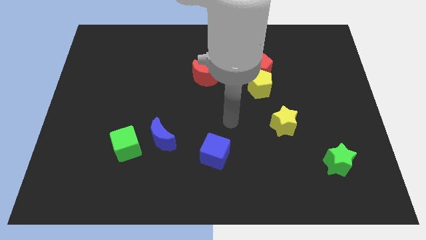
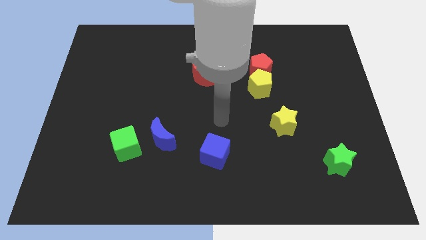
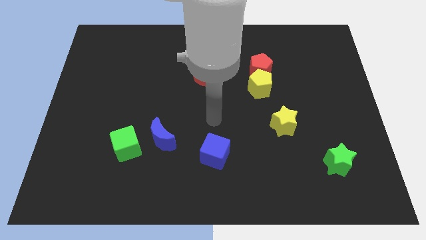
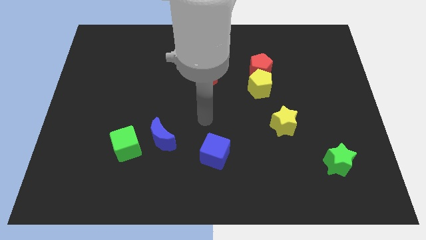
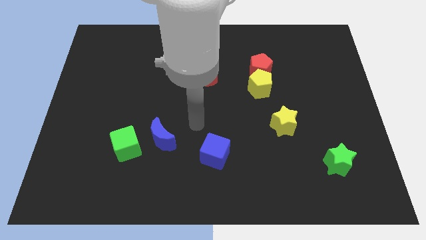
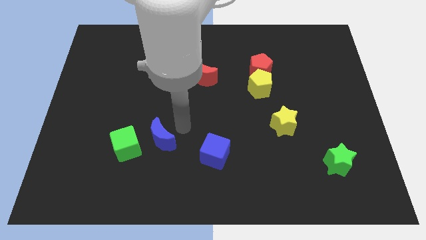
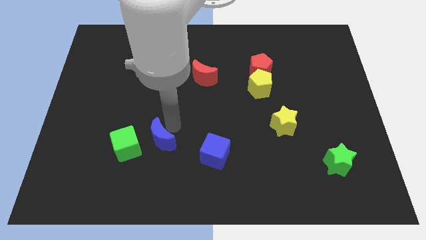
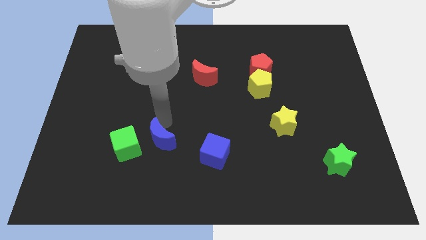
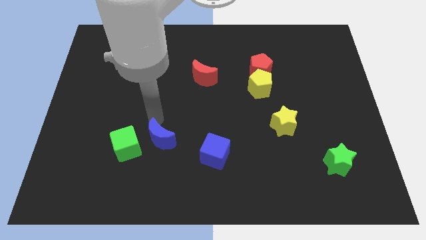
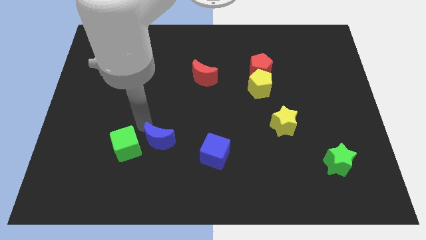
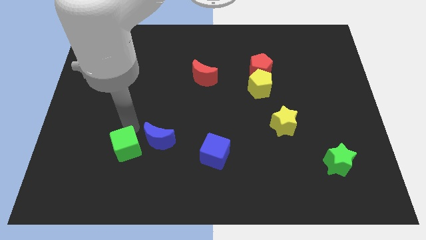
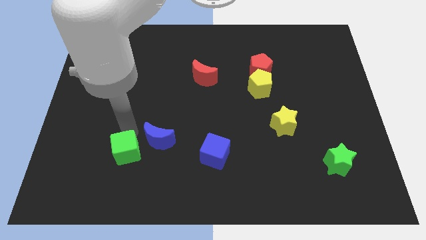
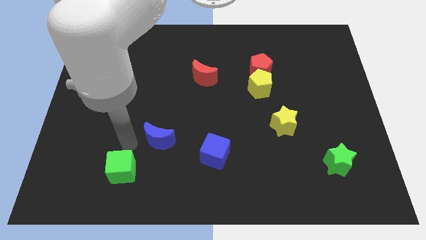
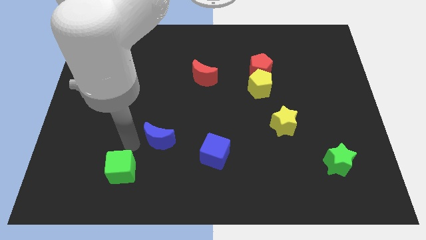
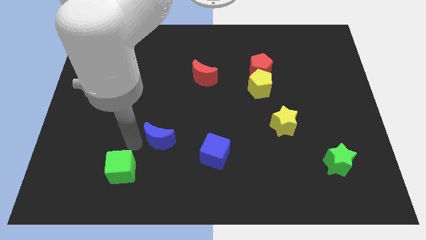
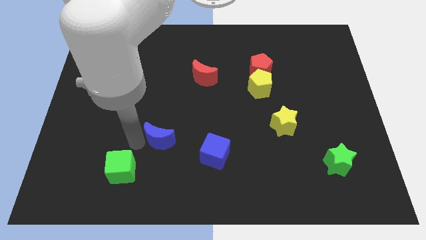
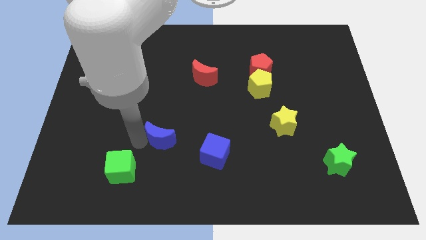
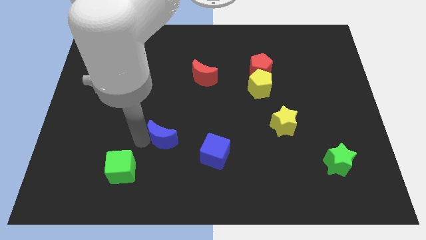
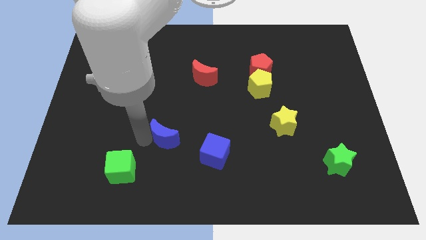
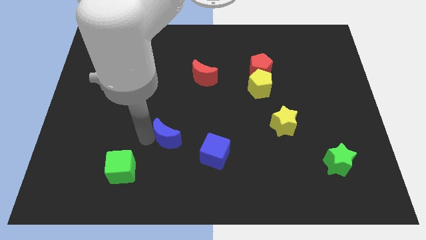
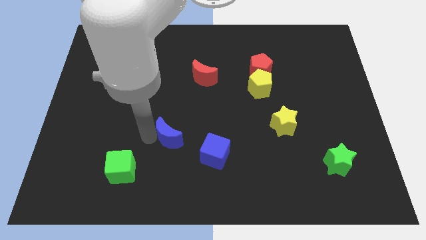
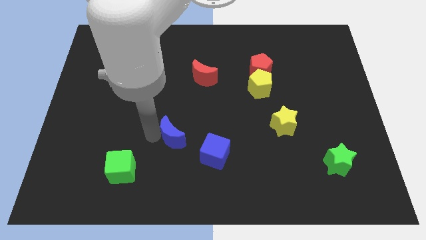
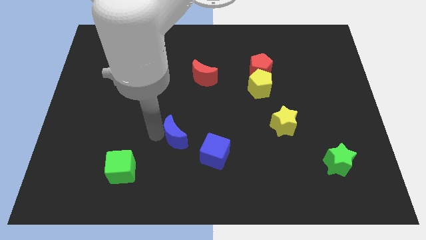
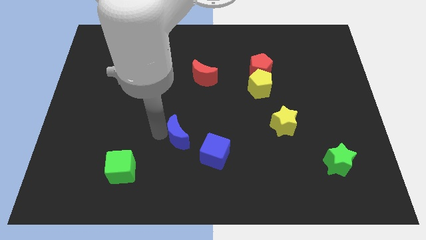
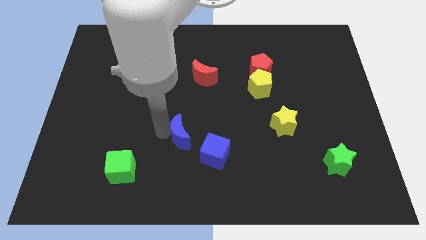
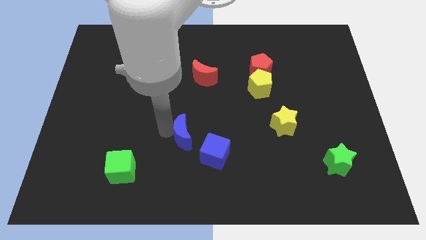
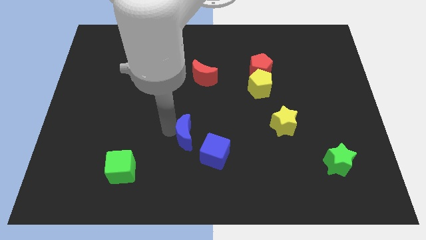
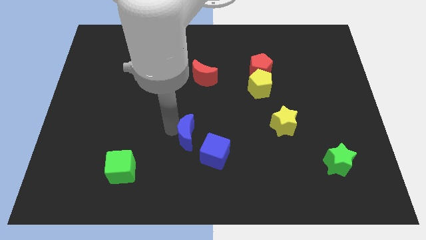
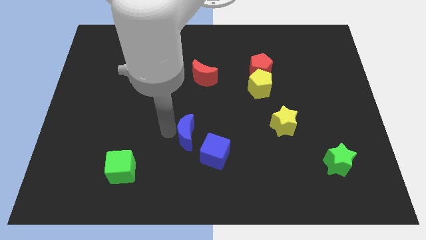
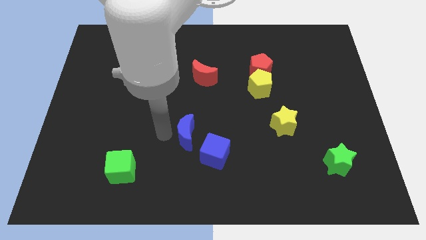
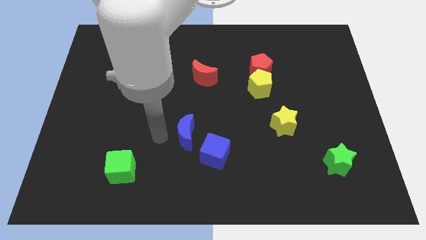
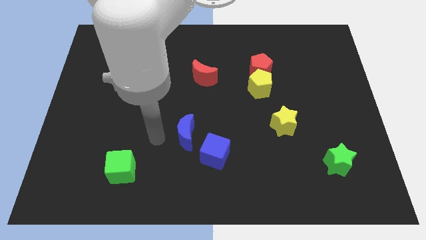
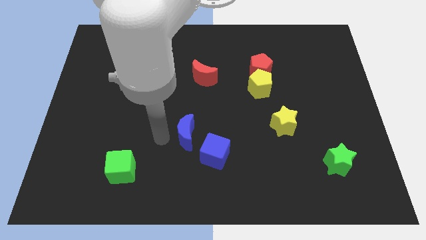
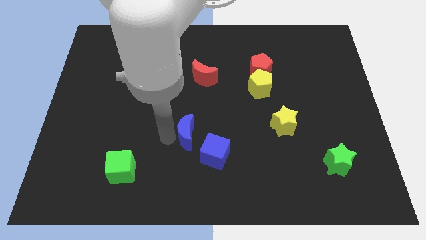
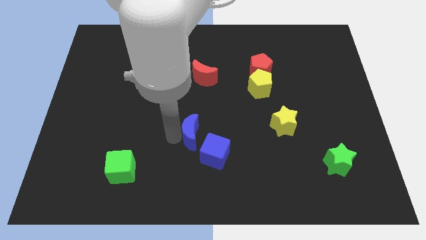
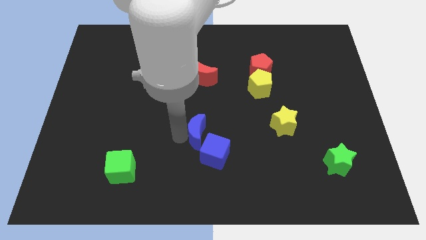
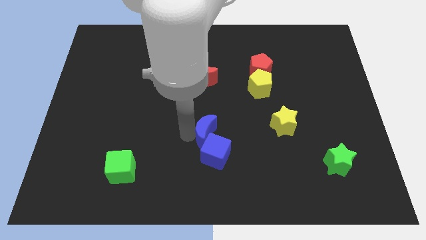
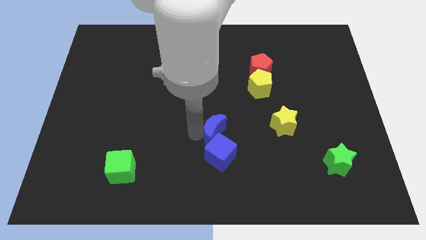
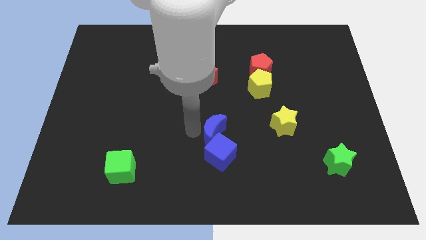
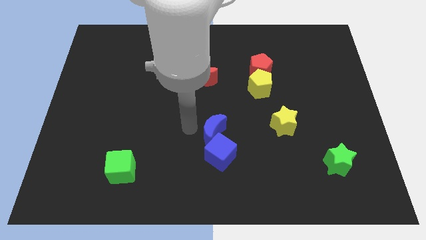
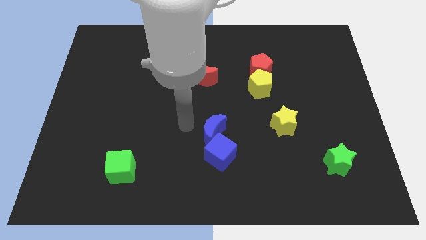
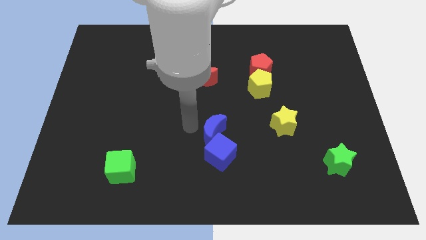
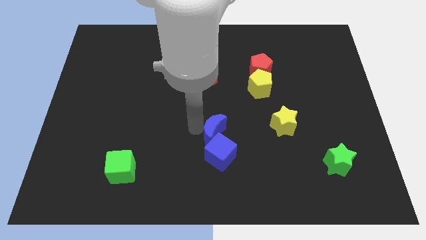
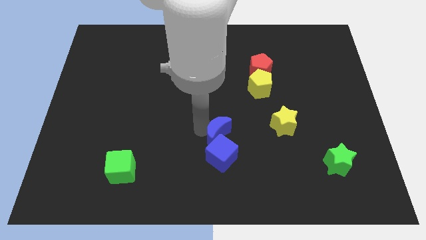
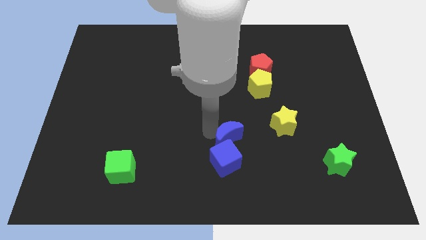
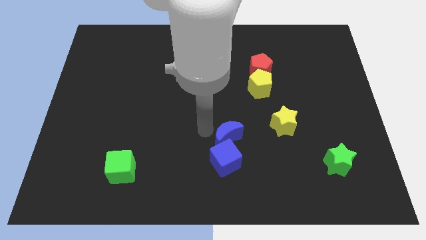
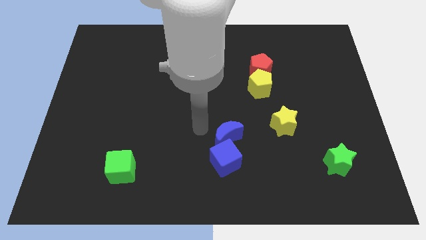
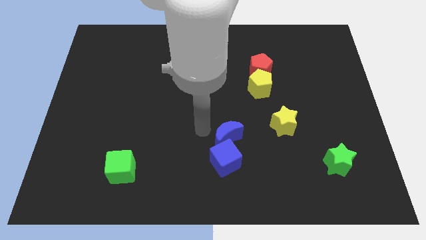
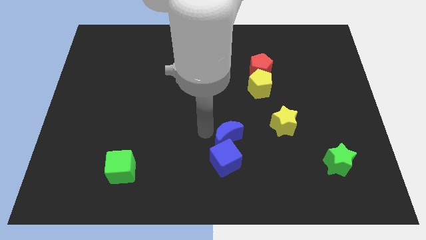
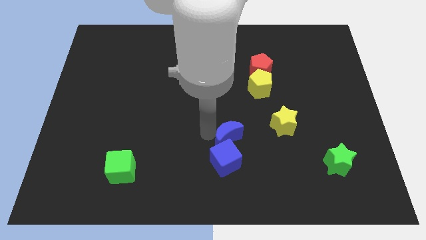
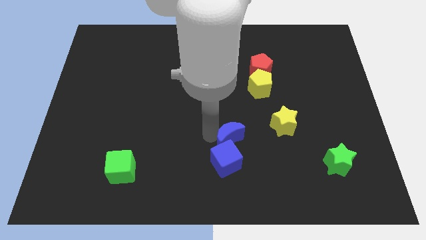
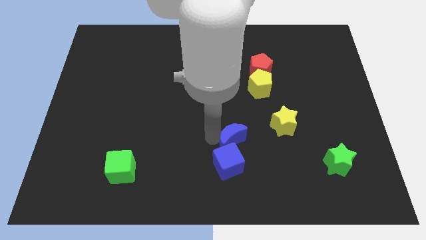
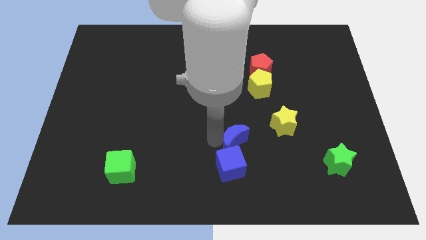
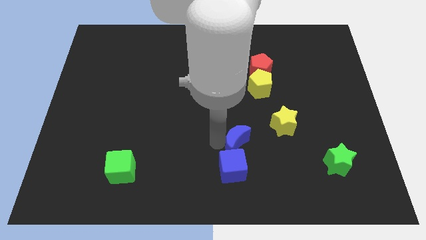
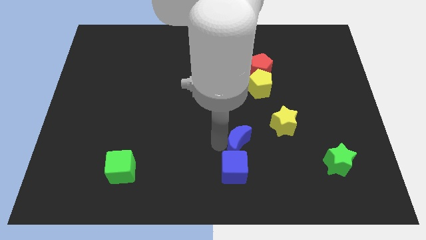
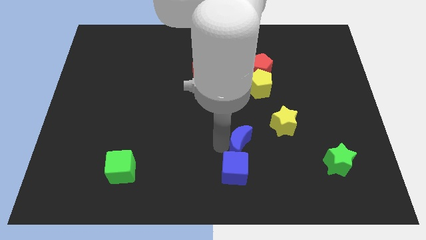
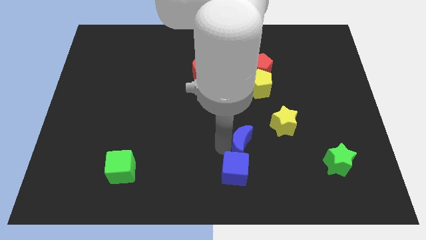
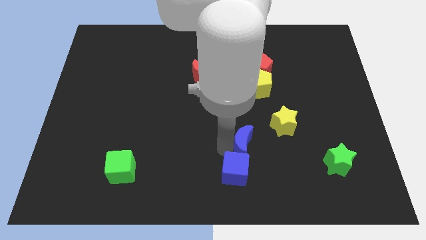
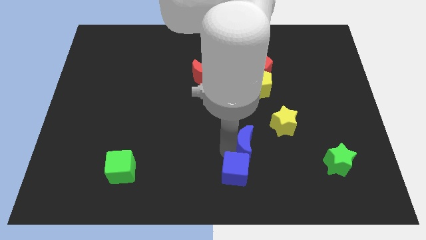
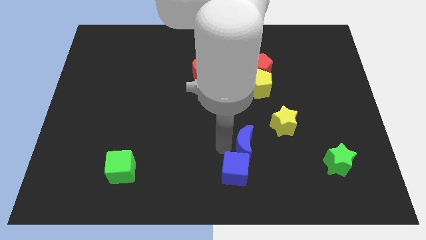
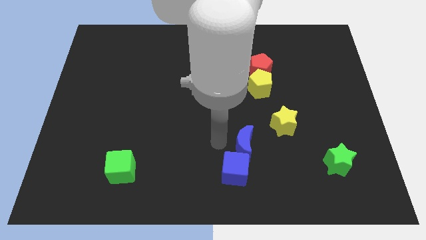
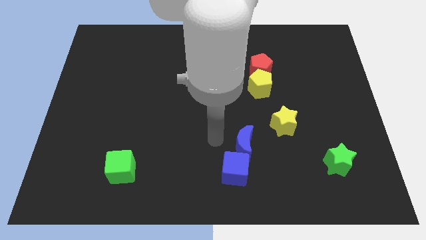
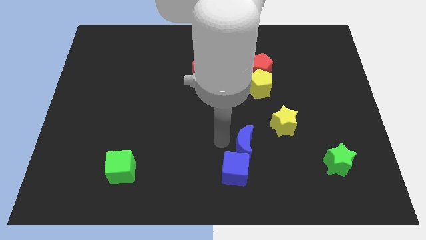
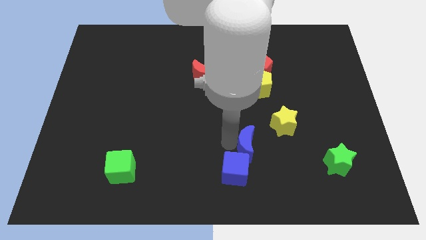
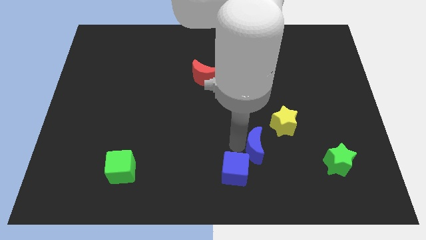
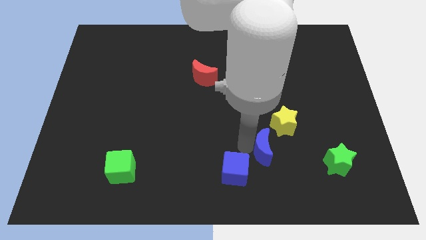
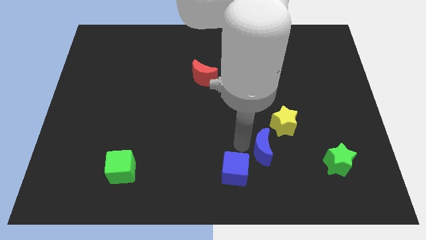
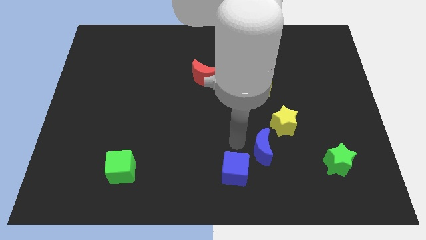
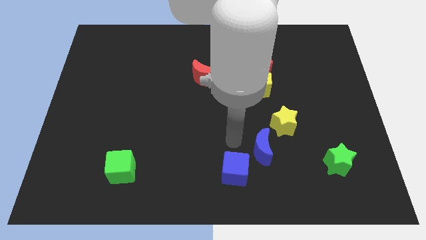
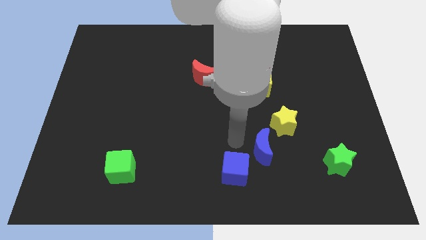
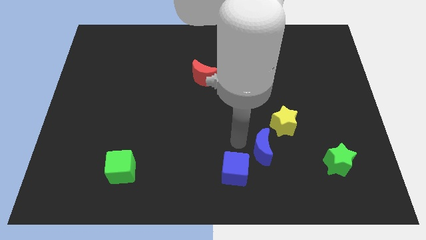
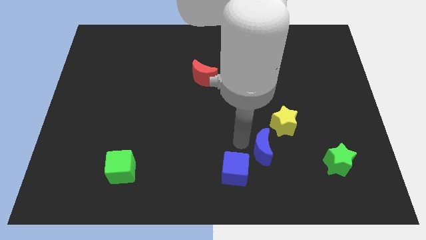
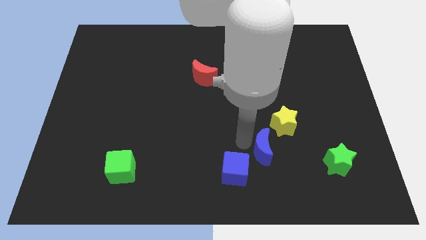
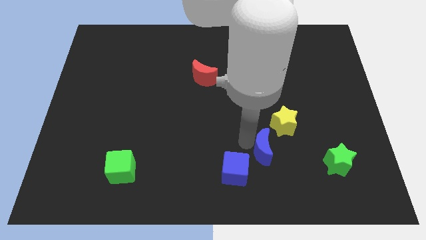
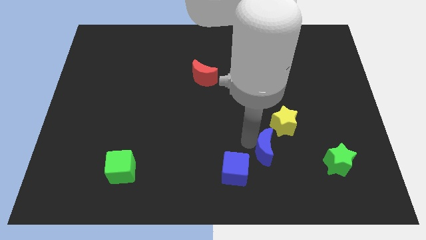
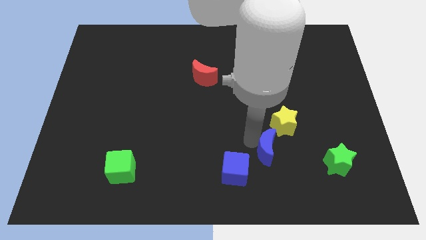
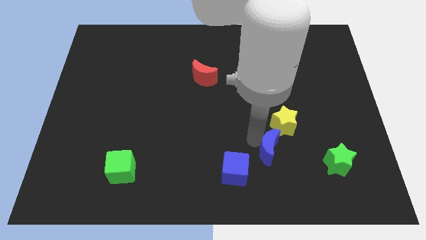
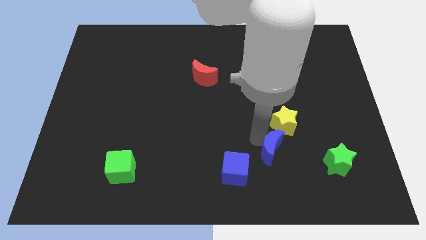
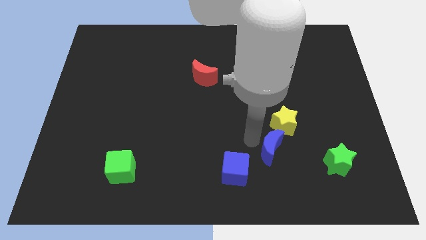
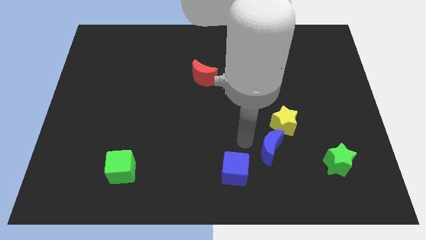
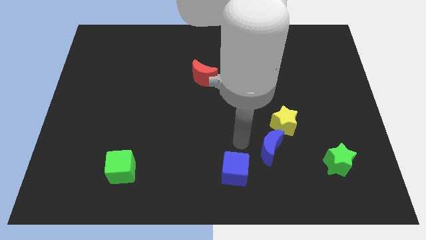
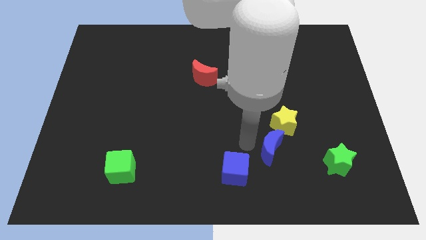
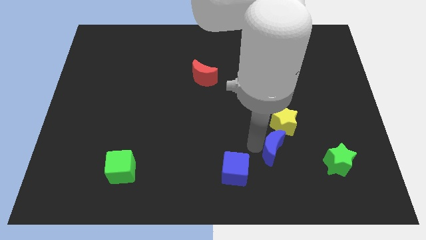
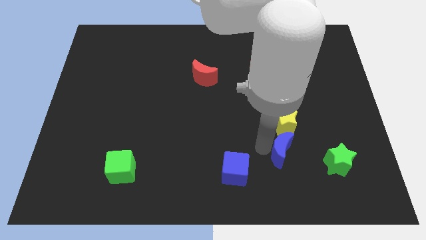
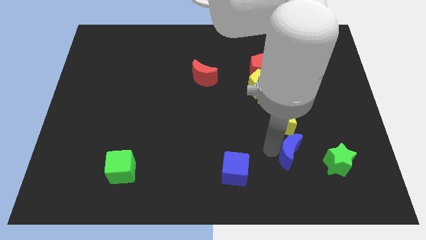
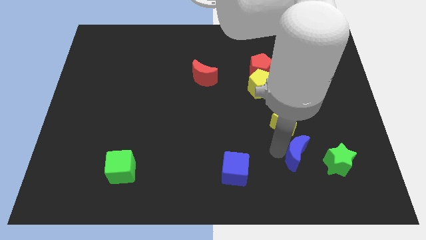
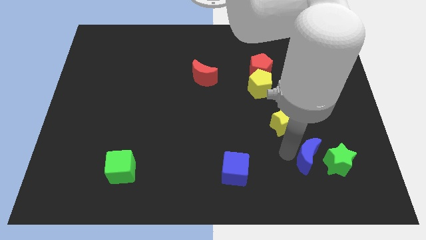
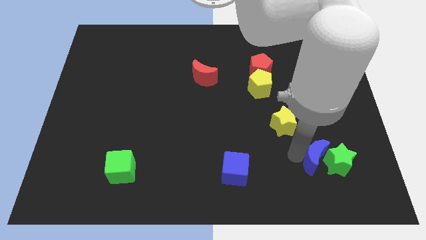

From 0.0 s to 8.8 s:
slide the blue moon to the green star
